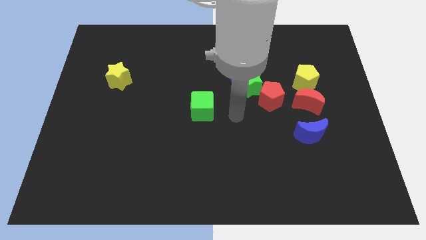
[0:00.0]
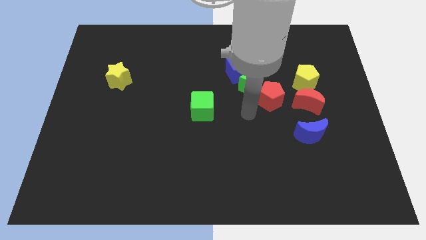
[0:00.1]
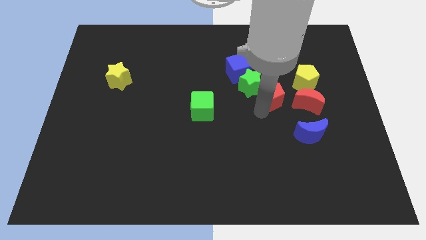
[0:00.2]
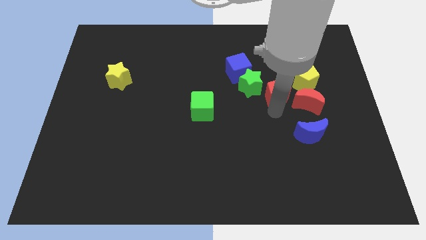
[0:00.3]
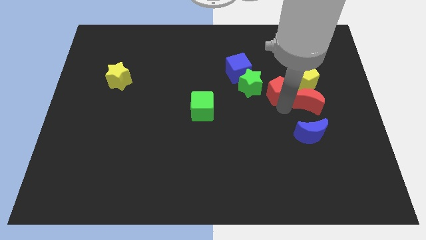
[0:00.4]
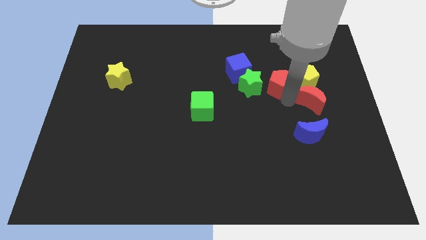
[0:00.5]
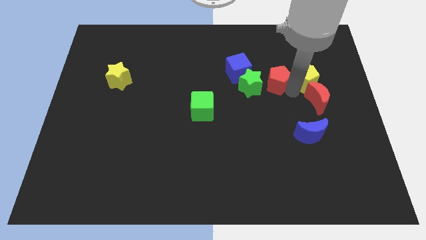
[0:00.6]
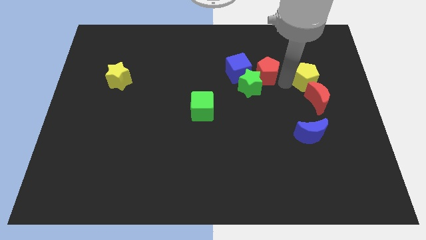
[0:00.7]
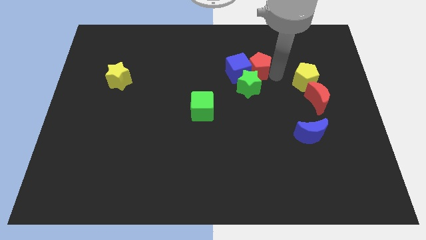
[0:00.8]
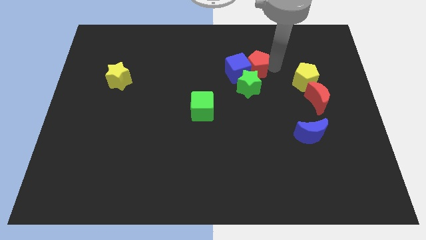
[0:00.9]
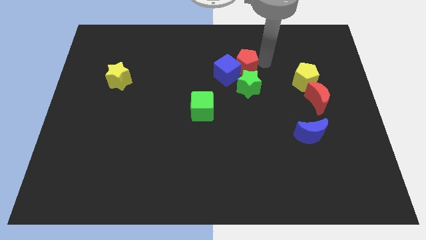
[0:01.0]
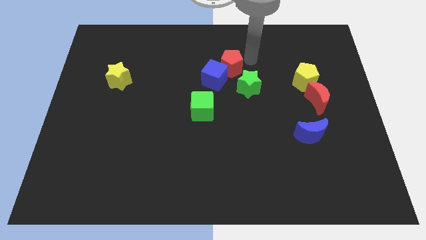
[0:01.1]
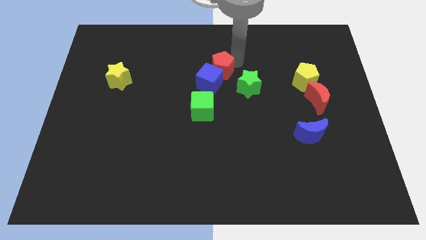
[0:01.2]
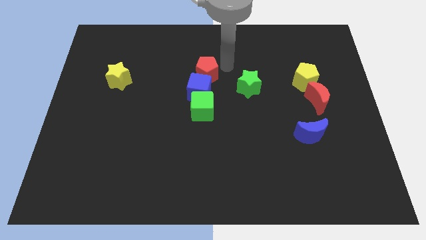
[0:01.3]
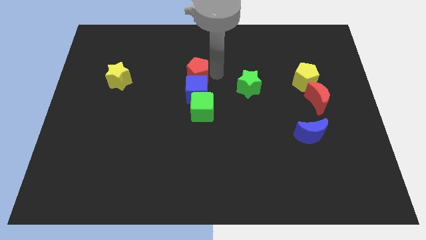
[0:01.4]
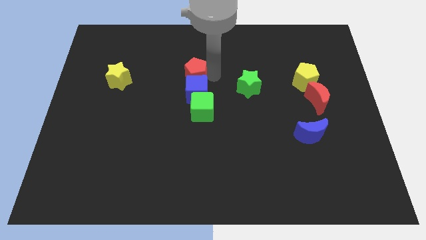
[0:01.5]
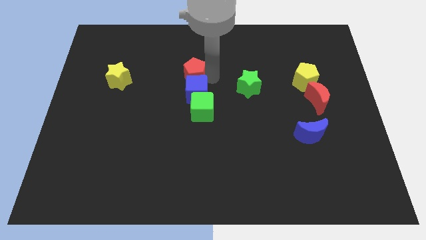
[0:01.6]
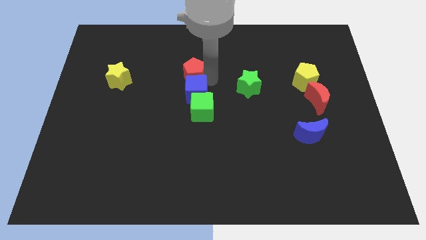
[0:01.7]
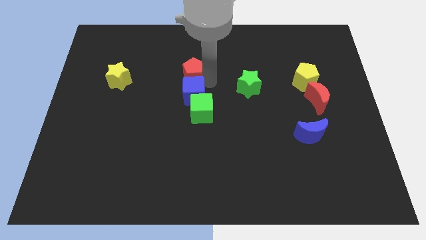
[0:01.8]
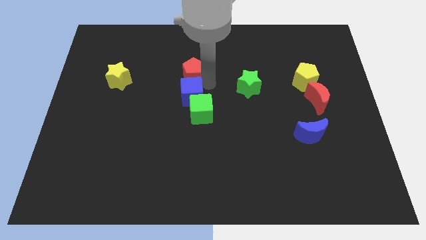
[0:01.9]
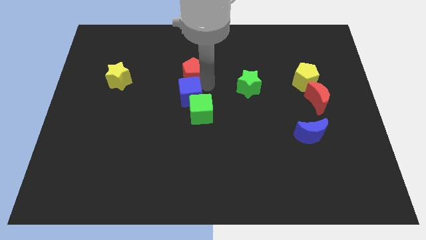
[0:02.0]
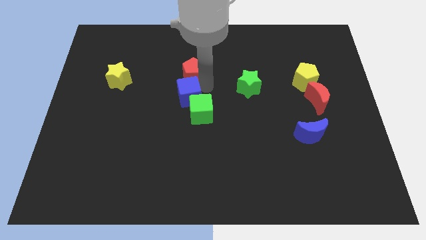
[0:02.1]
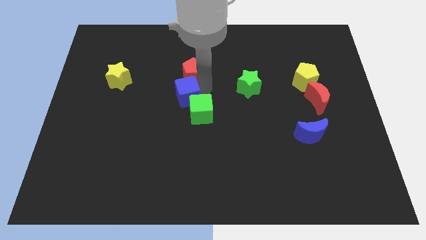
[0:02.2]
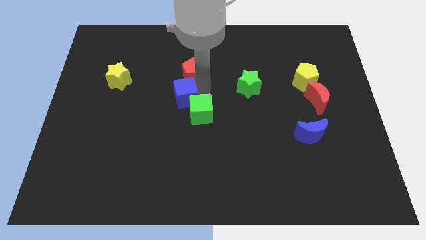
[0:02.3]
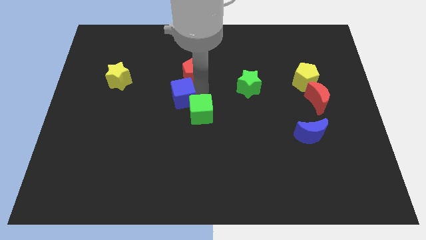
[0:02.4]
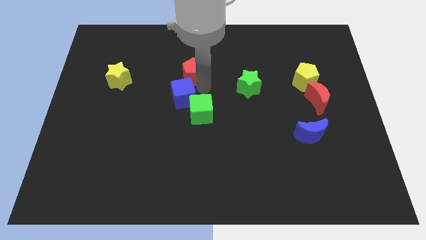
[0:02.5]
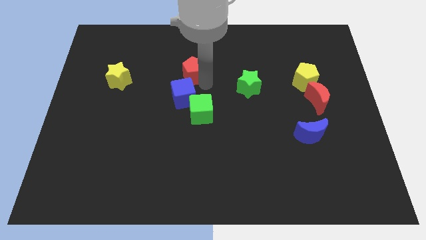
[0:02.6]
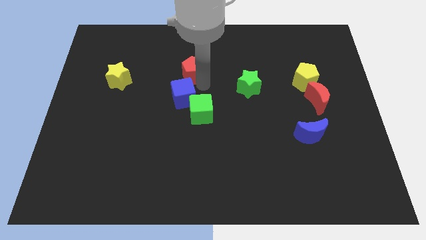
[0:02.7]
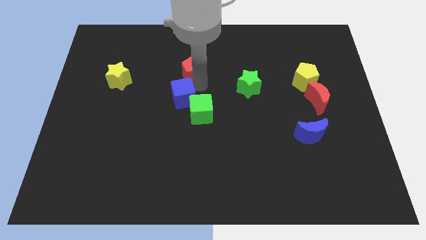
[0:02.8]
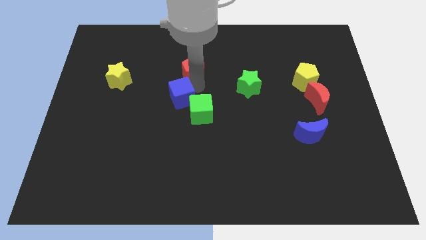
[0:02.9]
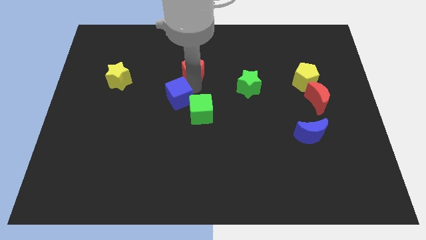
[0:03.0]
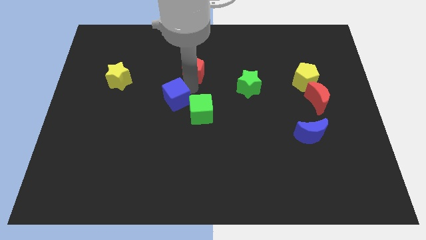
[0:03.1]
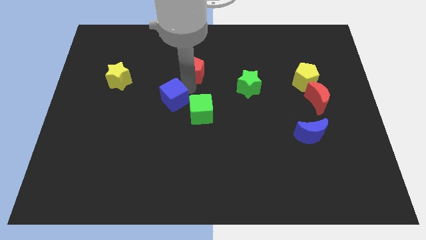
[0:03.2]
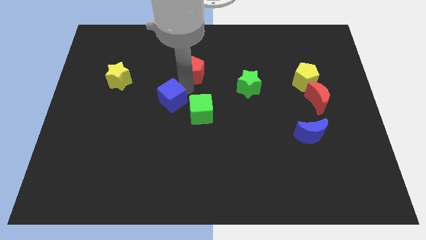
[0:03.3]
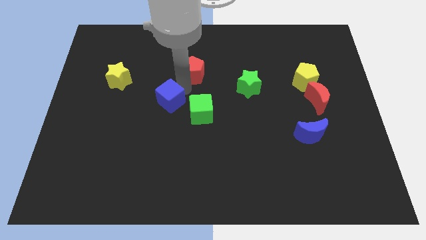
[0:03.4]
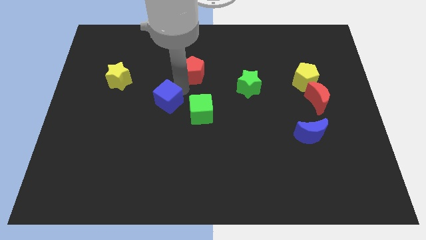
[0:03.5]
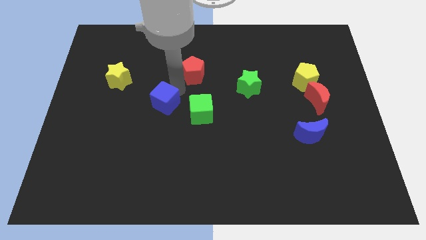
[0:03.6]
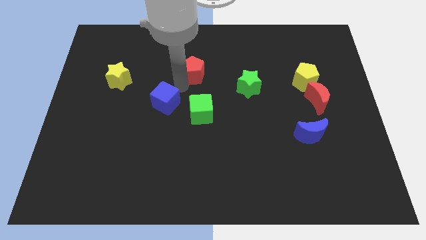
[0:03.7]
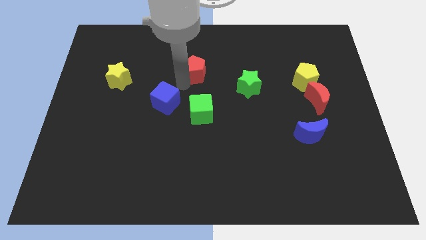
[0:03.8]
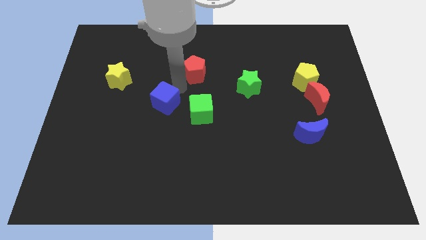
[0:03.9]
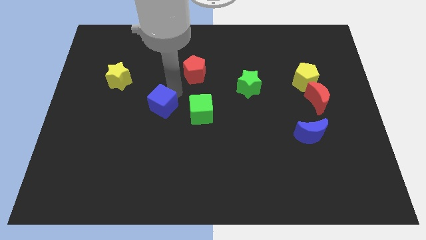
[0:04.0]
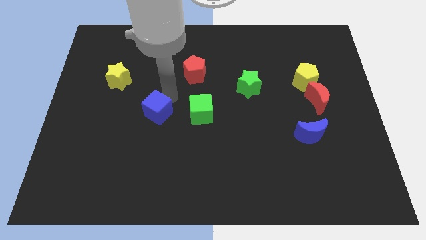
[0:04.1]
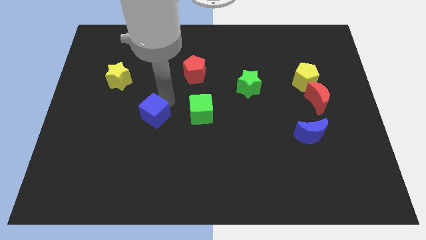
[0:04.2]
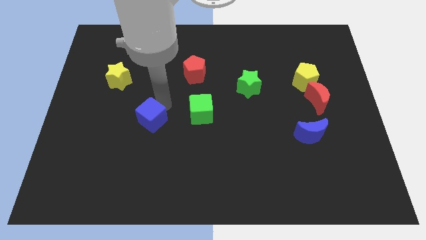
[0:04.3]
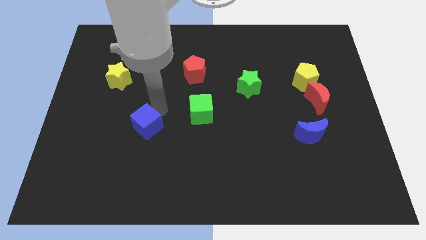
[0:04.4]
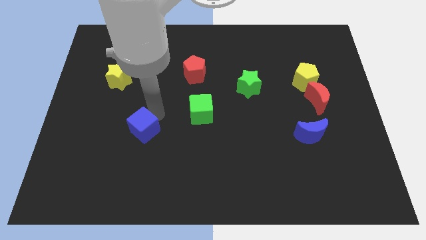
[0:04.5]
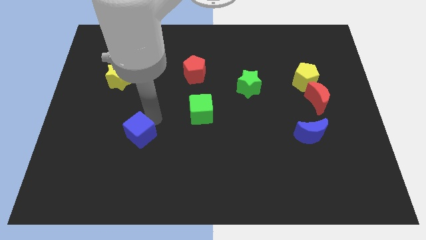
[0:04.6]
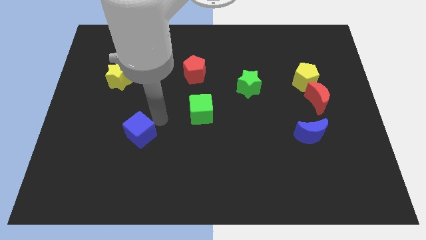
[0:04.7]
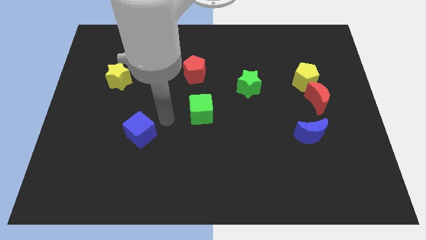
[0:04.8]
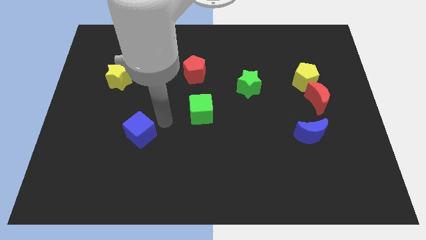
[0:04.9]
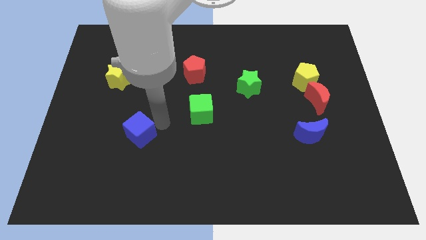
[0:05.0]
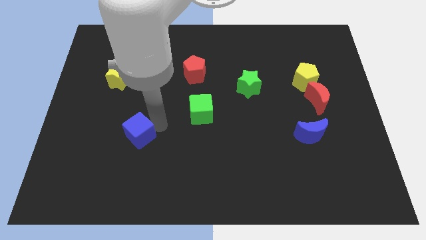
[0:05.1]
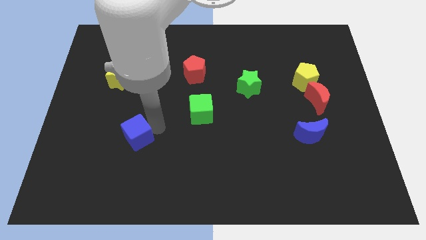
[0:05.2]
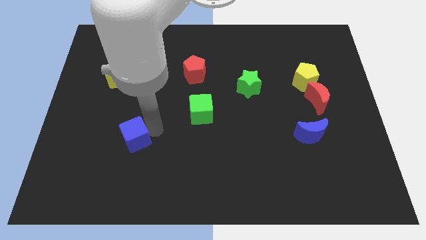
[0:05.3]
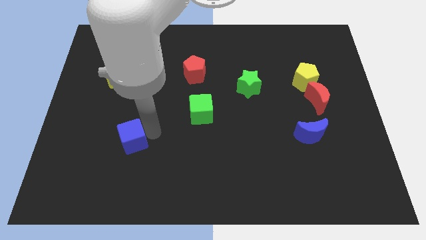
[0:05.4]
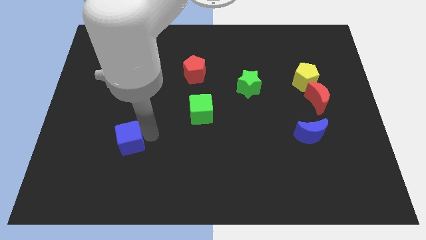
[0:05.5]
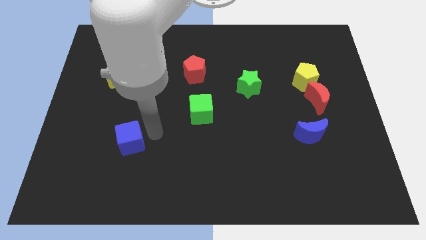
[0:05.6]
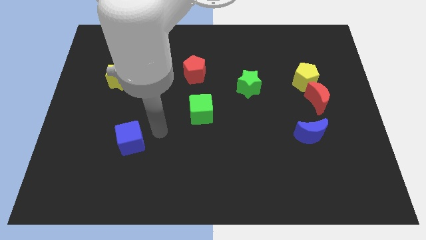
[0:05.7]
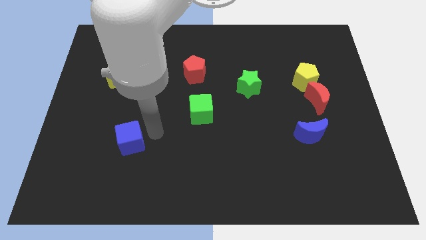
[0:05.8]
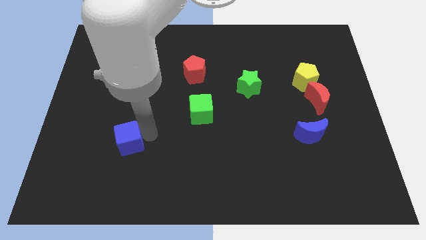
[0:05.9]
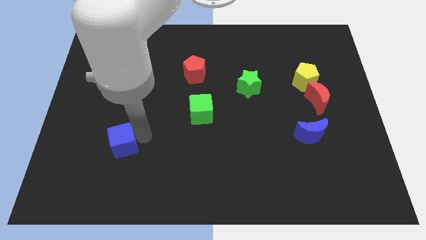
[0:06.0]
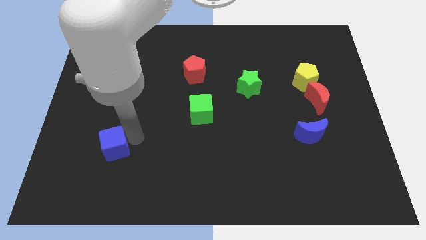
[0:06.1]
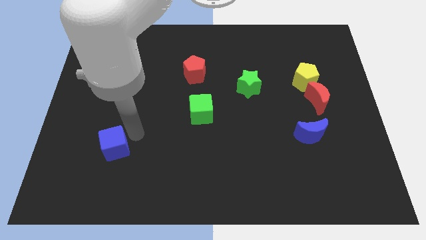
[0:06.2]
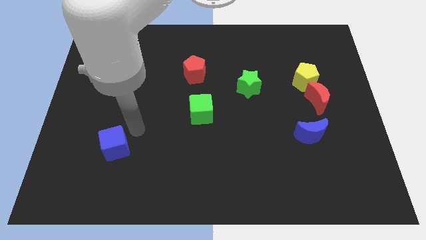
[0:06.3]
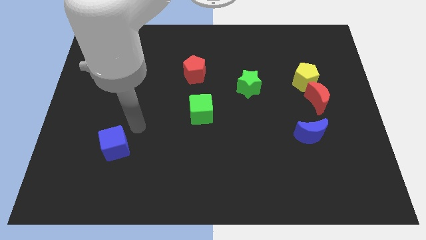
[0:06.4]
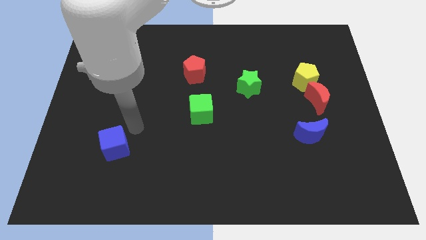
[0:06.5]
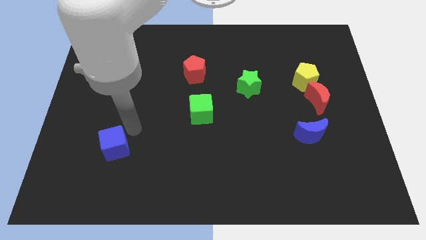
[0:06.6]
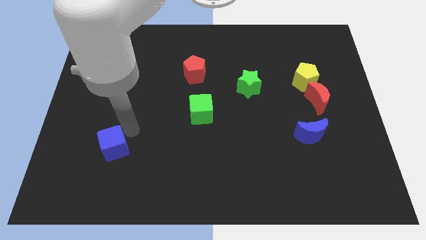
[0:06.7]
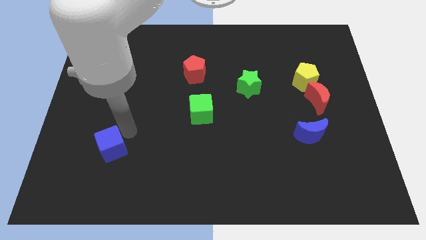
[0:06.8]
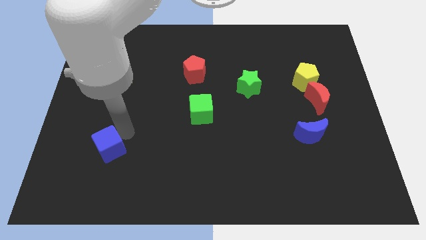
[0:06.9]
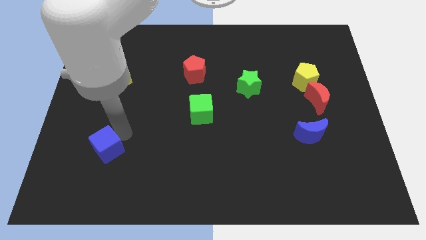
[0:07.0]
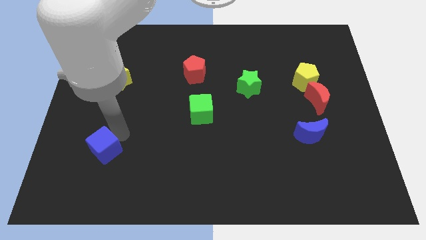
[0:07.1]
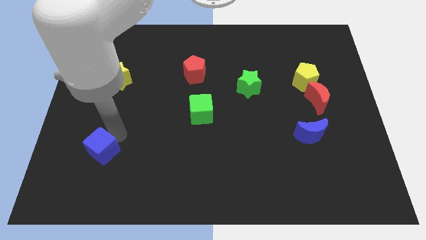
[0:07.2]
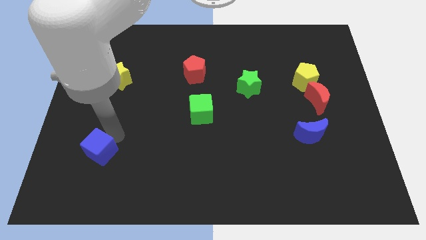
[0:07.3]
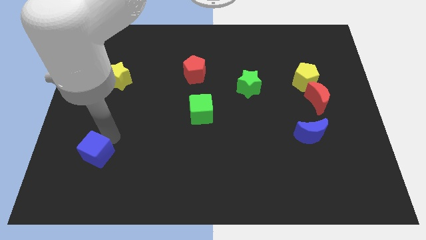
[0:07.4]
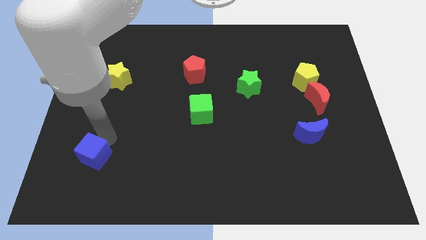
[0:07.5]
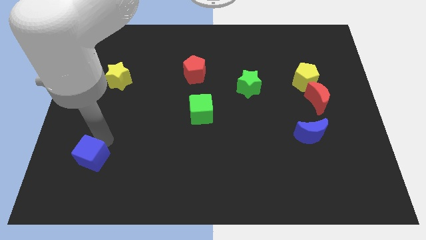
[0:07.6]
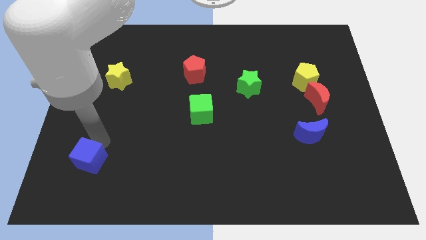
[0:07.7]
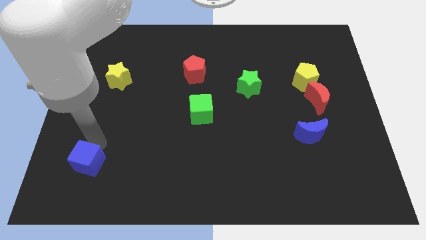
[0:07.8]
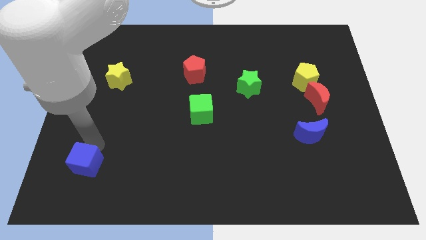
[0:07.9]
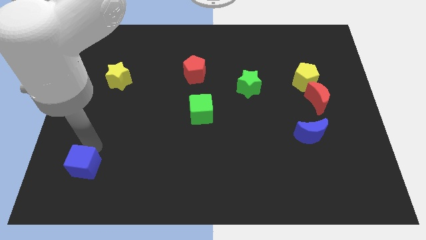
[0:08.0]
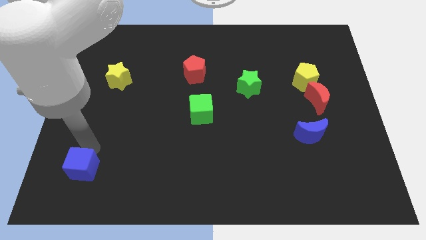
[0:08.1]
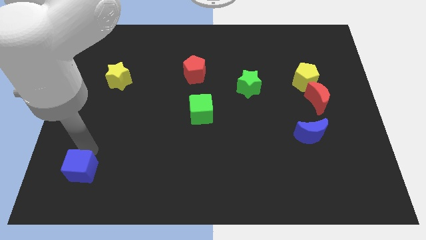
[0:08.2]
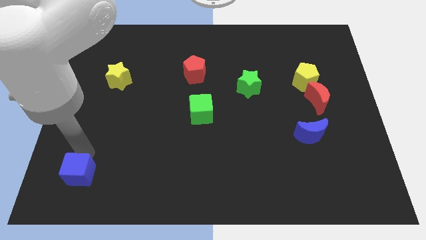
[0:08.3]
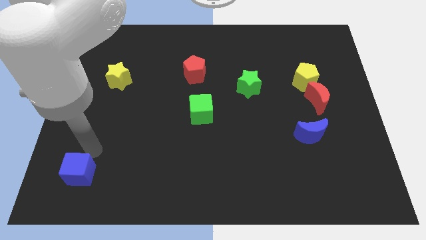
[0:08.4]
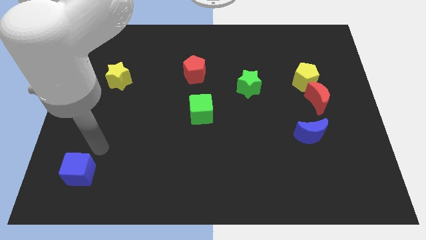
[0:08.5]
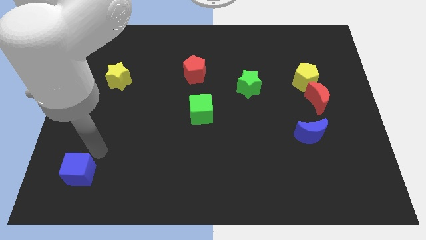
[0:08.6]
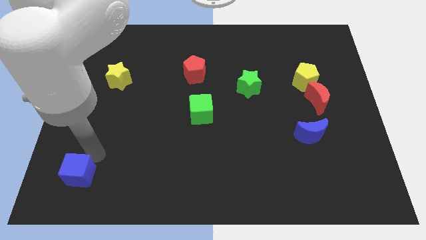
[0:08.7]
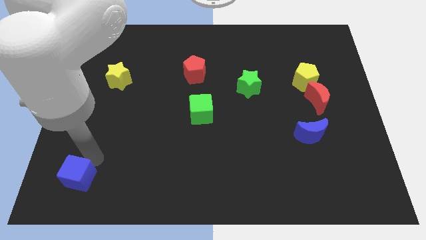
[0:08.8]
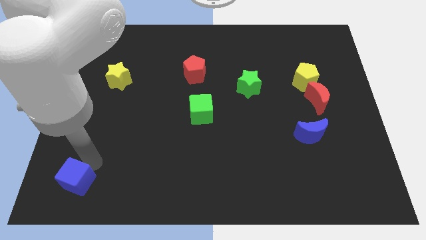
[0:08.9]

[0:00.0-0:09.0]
slide the blue cube to the bottom left corner
